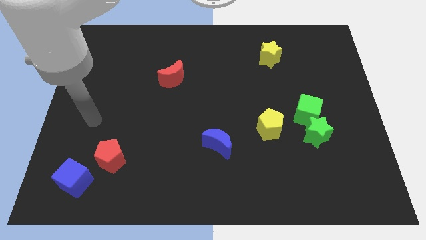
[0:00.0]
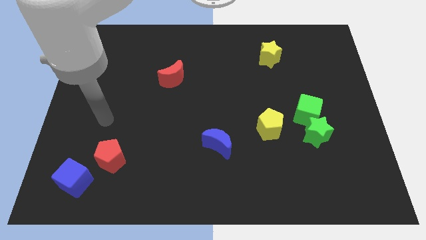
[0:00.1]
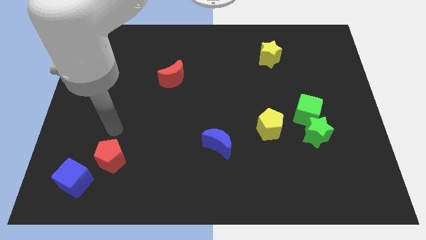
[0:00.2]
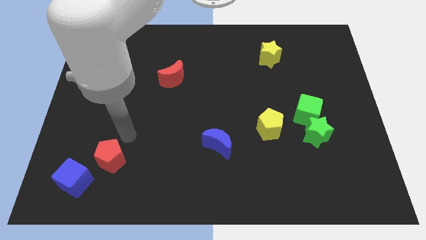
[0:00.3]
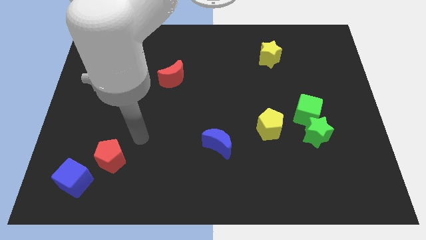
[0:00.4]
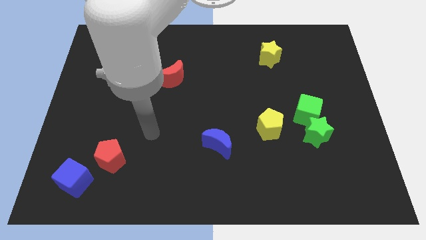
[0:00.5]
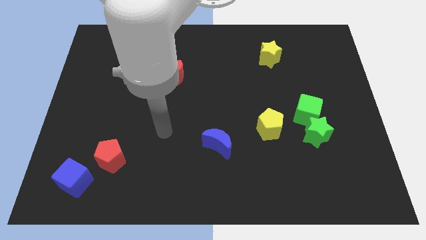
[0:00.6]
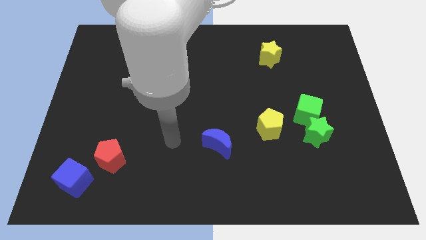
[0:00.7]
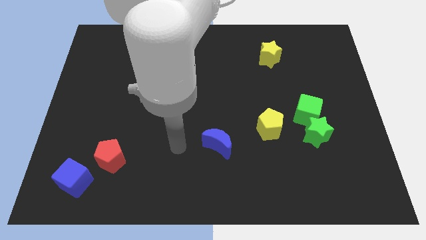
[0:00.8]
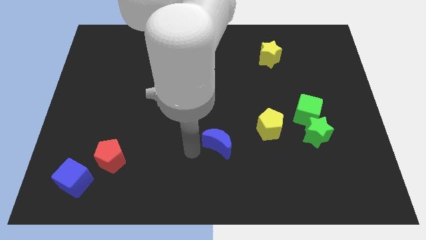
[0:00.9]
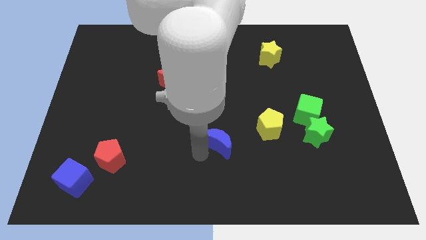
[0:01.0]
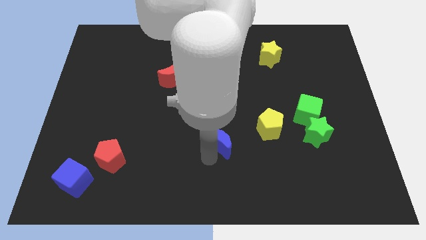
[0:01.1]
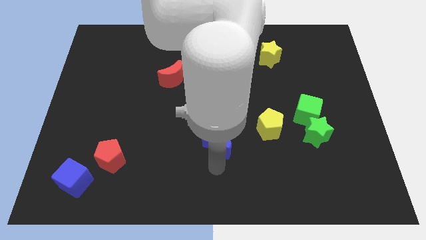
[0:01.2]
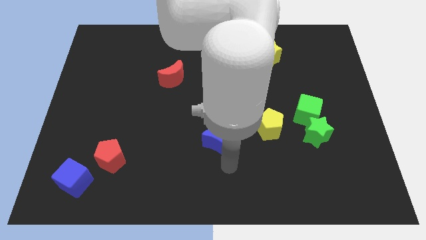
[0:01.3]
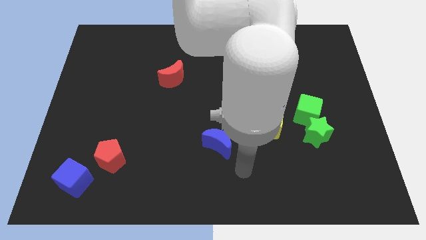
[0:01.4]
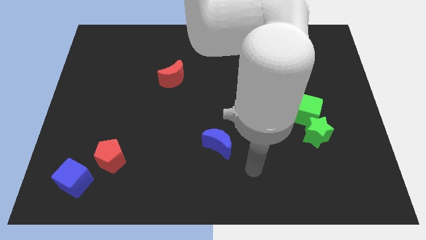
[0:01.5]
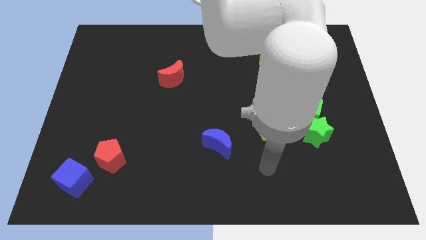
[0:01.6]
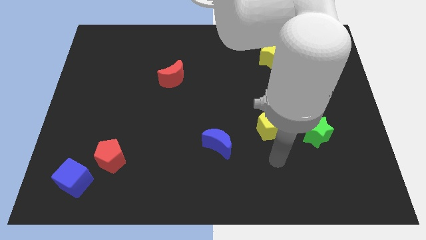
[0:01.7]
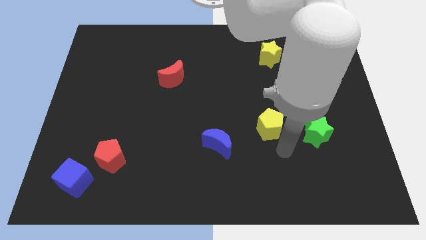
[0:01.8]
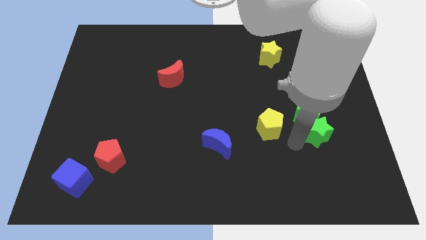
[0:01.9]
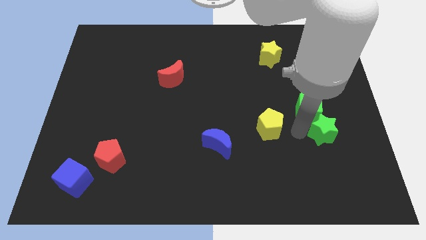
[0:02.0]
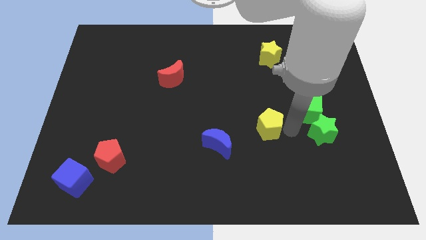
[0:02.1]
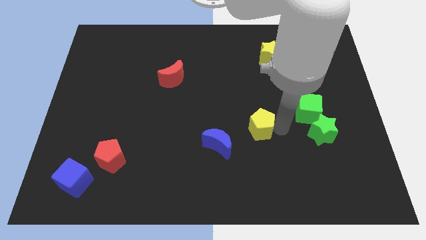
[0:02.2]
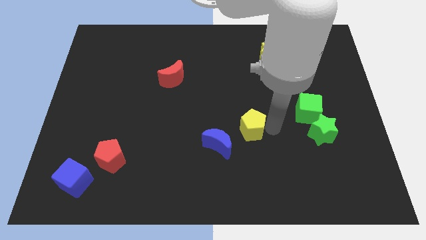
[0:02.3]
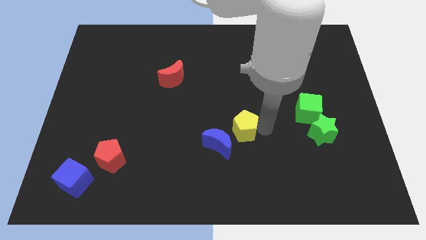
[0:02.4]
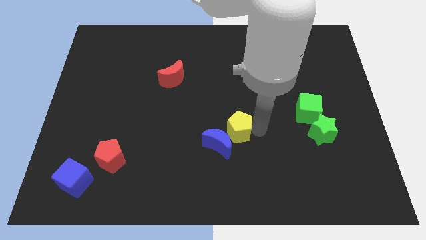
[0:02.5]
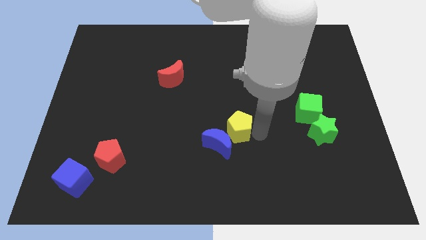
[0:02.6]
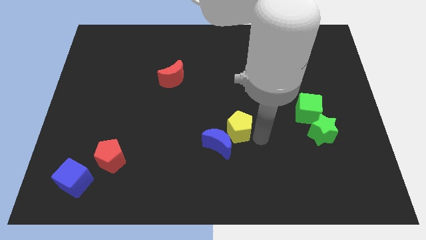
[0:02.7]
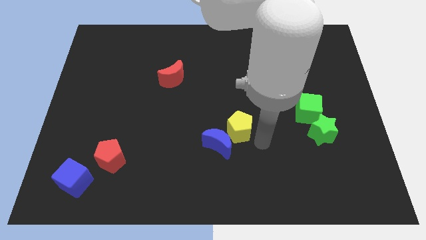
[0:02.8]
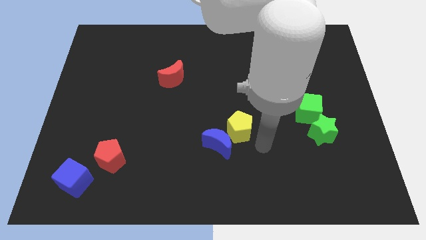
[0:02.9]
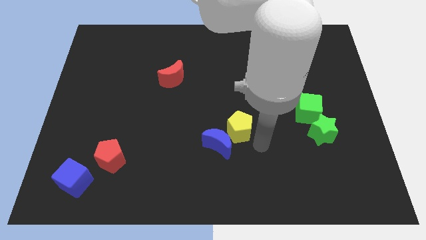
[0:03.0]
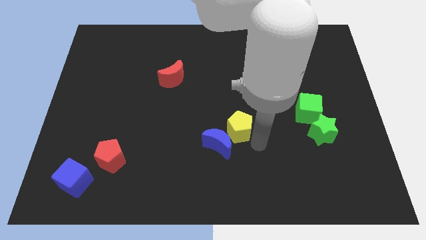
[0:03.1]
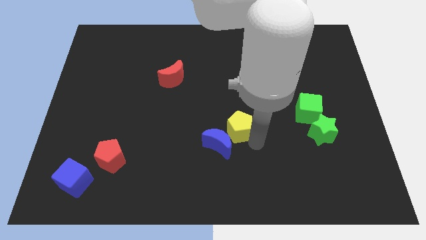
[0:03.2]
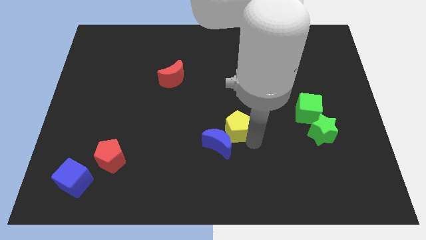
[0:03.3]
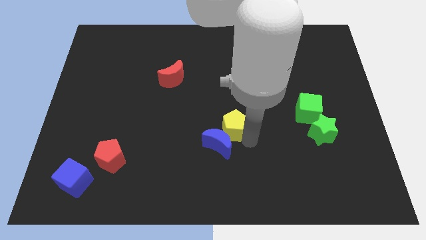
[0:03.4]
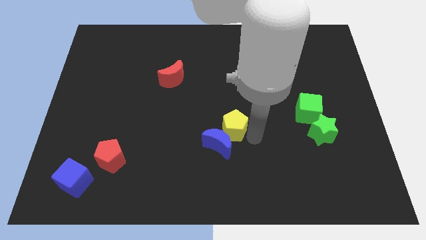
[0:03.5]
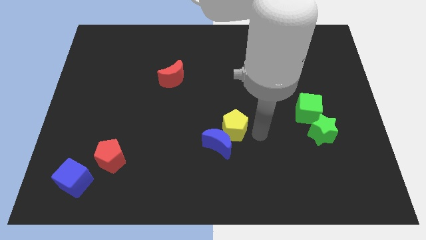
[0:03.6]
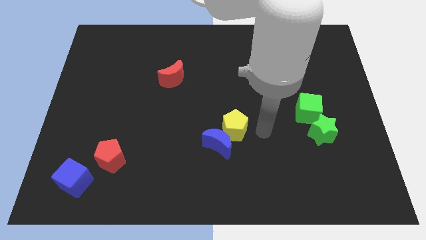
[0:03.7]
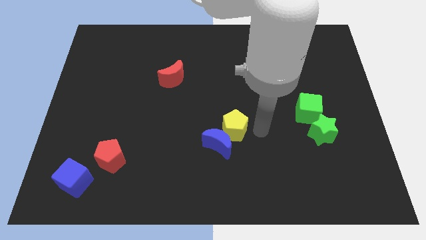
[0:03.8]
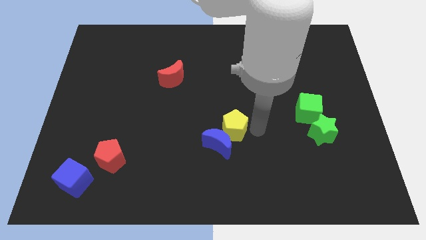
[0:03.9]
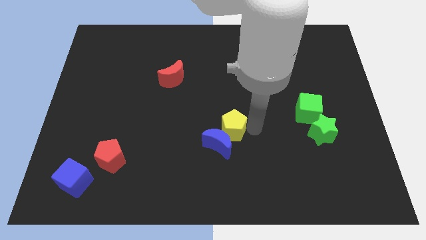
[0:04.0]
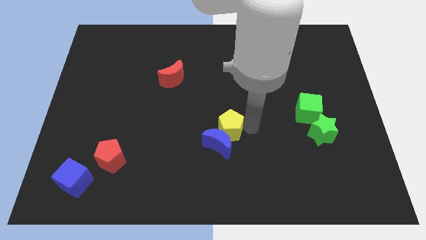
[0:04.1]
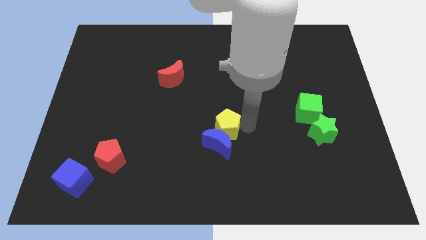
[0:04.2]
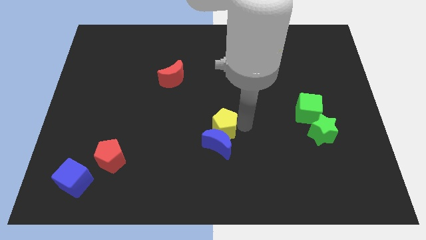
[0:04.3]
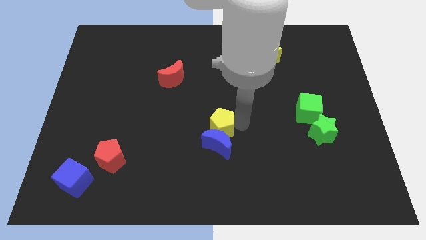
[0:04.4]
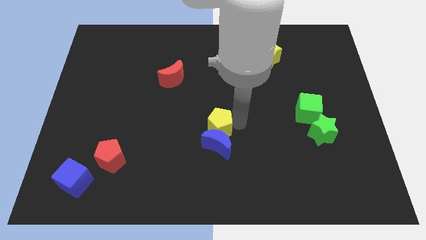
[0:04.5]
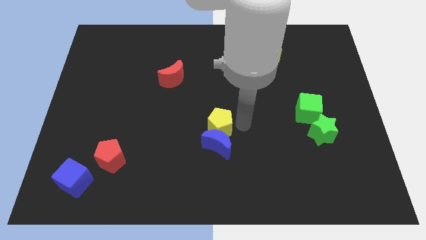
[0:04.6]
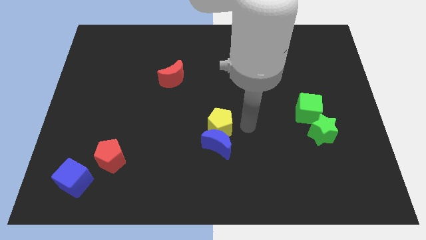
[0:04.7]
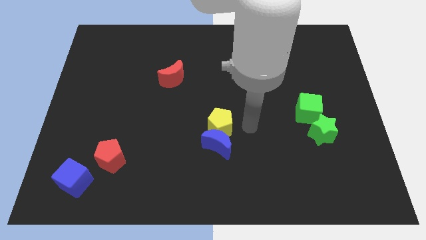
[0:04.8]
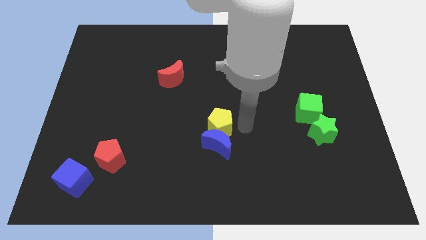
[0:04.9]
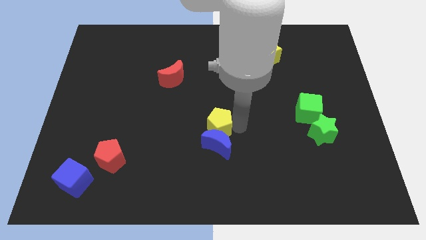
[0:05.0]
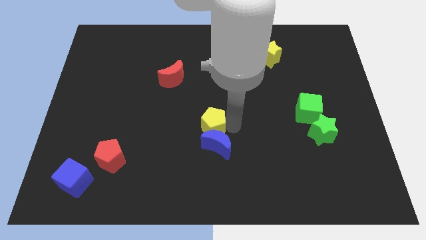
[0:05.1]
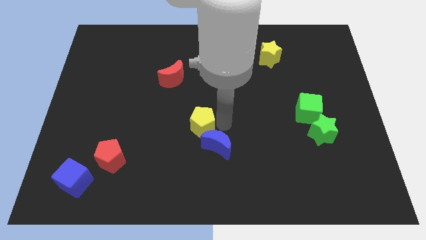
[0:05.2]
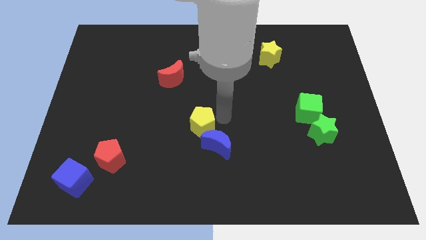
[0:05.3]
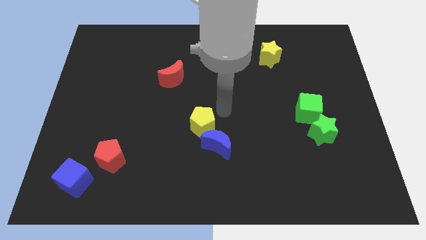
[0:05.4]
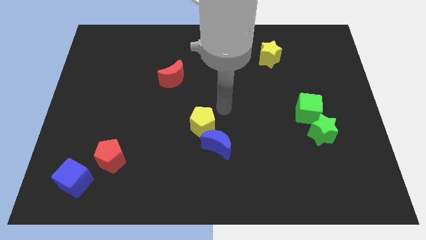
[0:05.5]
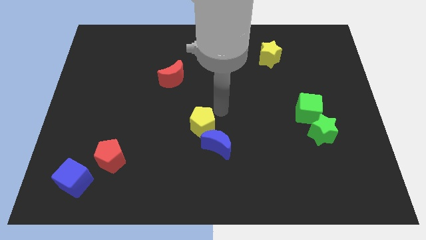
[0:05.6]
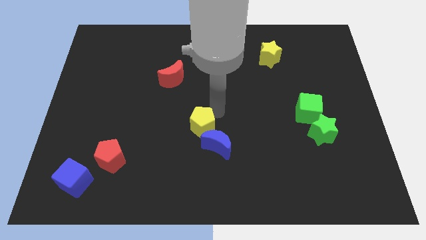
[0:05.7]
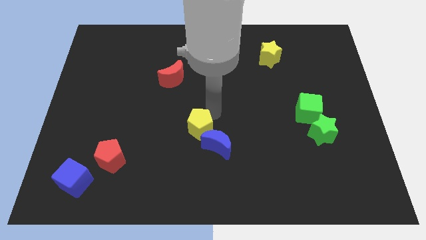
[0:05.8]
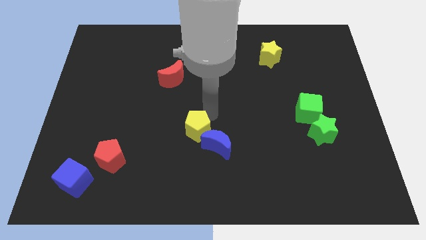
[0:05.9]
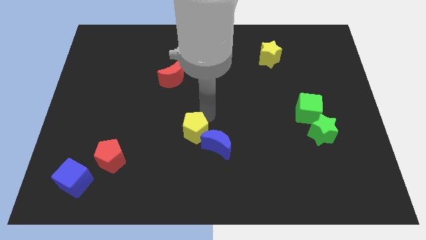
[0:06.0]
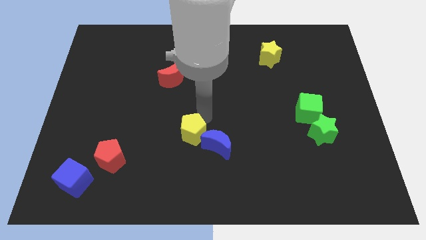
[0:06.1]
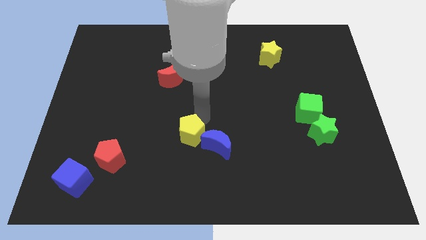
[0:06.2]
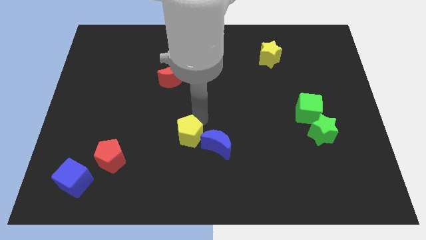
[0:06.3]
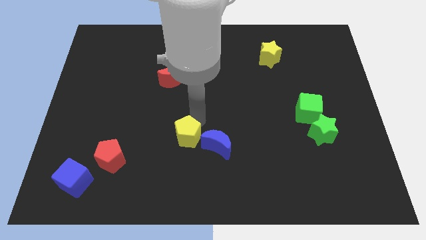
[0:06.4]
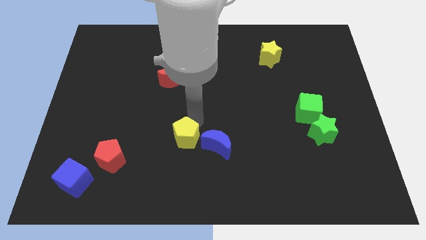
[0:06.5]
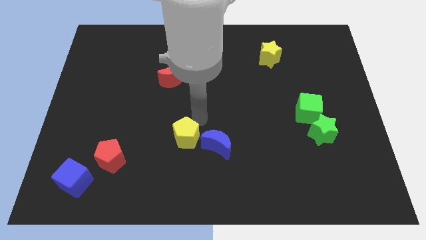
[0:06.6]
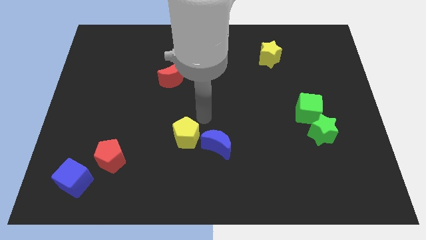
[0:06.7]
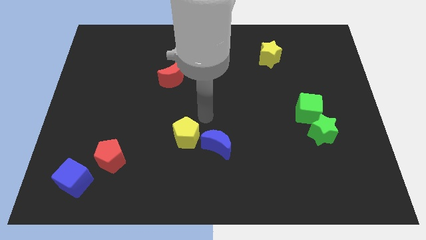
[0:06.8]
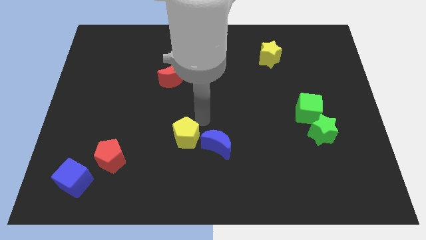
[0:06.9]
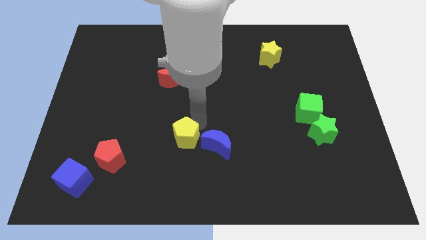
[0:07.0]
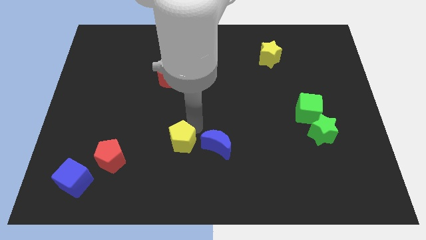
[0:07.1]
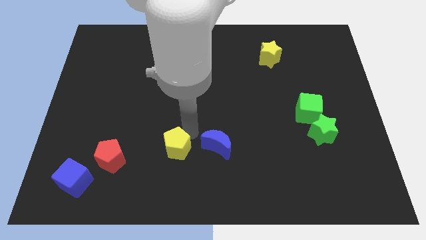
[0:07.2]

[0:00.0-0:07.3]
put the yellow pentagon to the right of the red pentagon

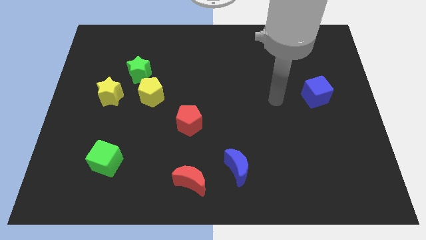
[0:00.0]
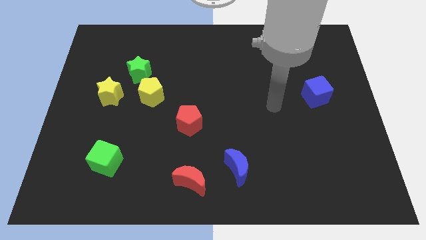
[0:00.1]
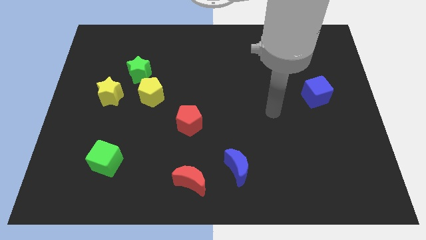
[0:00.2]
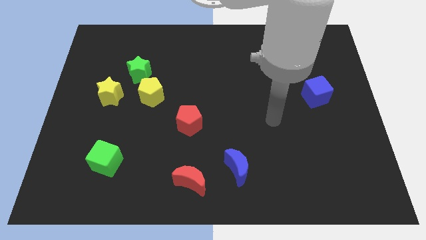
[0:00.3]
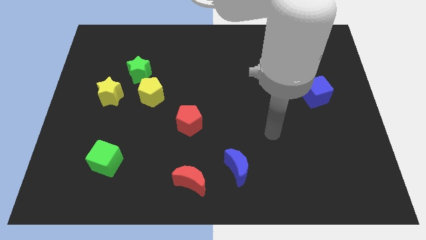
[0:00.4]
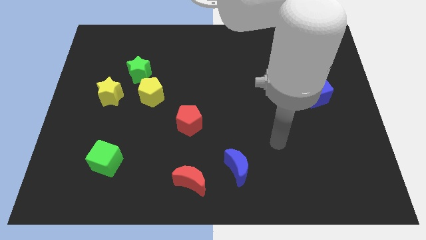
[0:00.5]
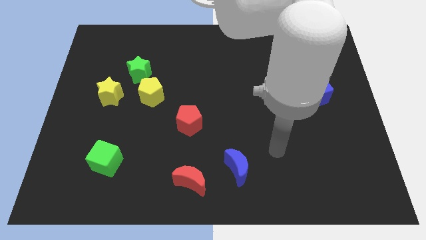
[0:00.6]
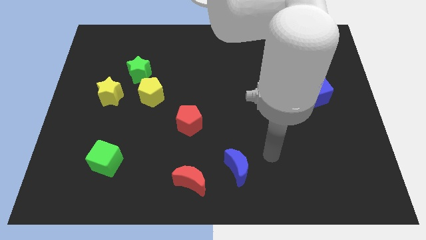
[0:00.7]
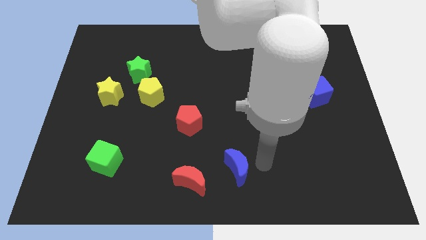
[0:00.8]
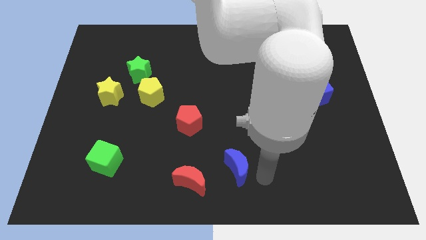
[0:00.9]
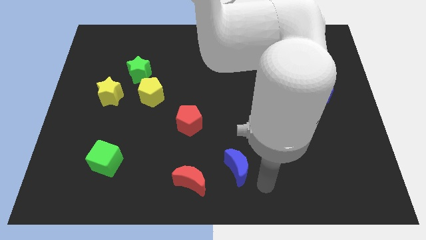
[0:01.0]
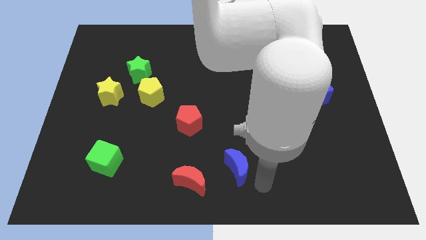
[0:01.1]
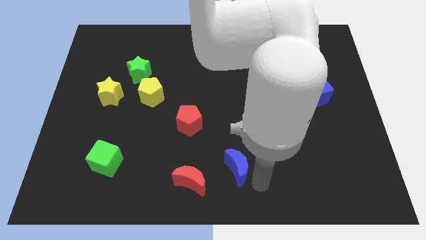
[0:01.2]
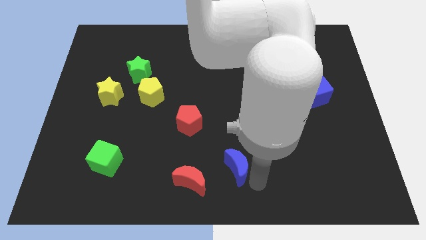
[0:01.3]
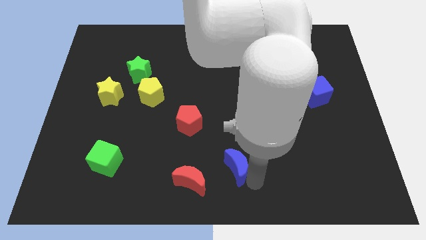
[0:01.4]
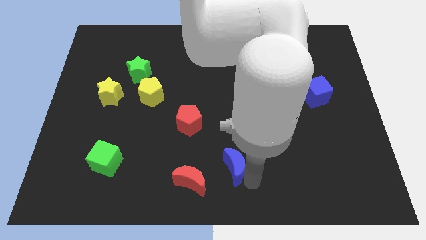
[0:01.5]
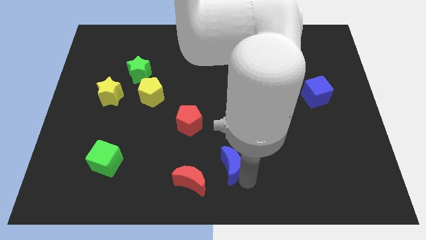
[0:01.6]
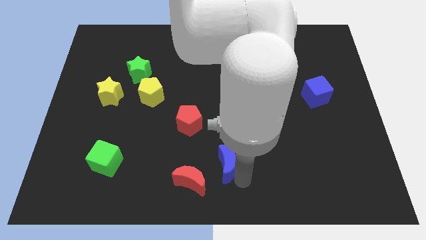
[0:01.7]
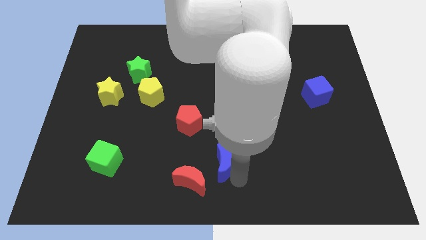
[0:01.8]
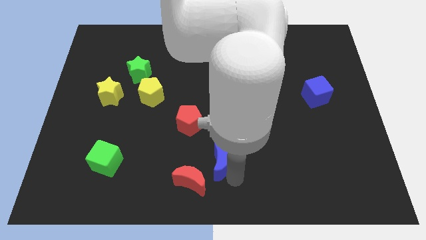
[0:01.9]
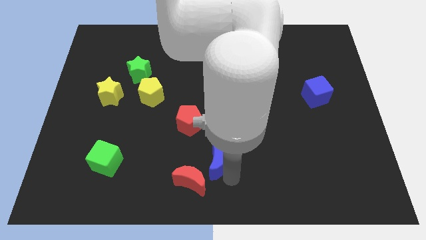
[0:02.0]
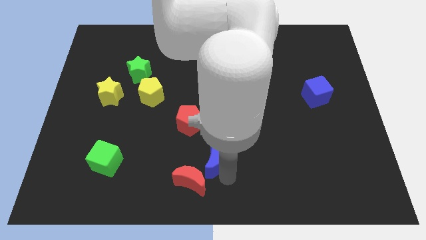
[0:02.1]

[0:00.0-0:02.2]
push the blue moon above the red moon
